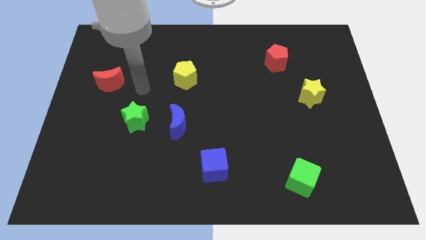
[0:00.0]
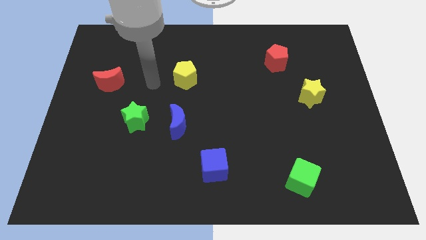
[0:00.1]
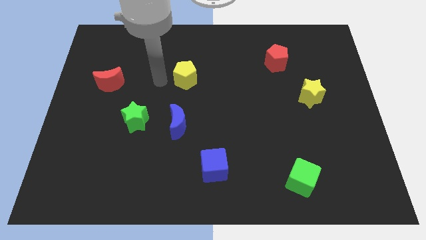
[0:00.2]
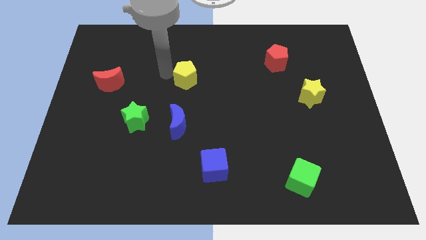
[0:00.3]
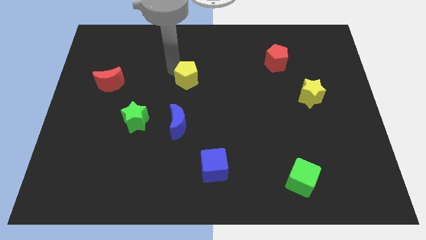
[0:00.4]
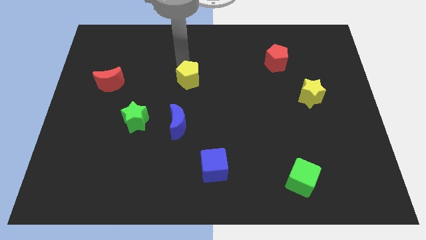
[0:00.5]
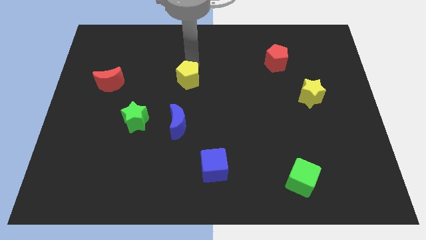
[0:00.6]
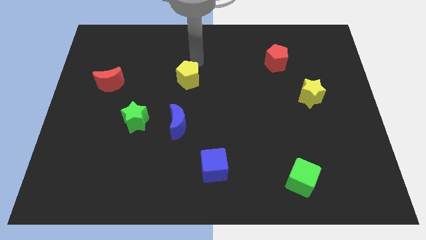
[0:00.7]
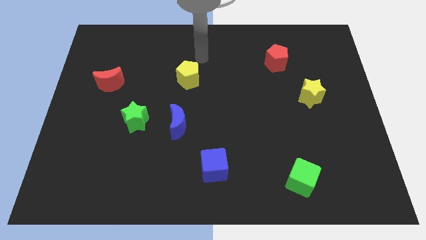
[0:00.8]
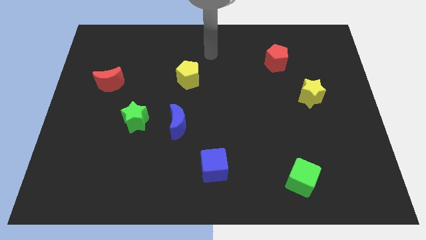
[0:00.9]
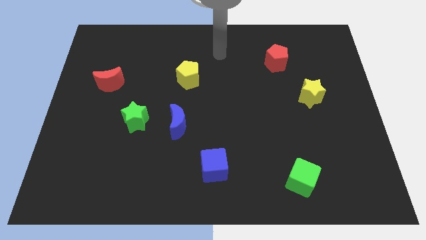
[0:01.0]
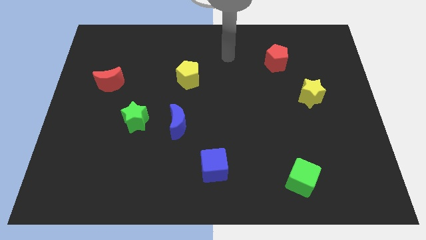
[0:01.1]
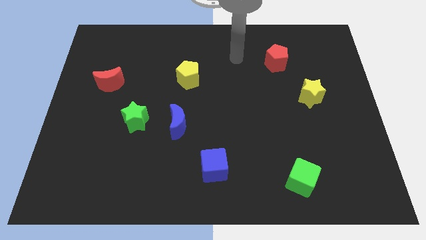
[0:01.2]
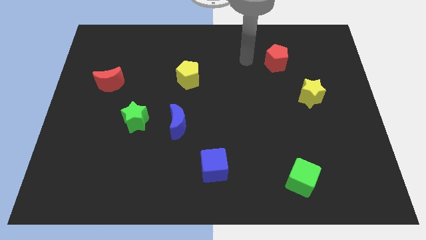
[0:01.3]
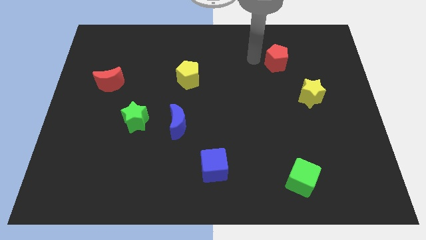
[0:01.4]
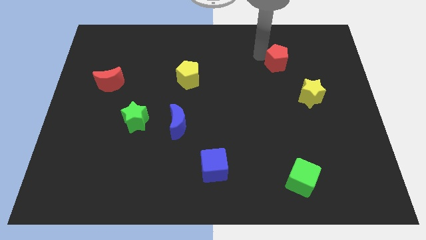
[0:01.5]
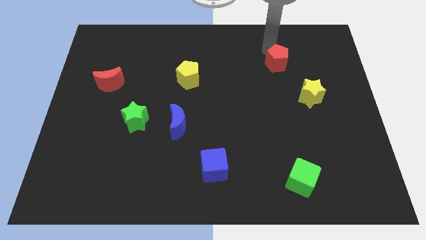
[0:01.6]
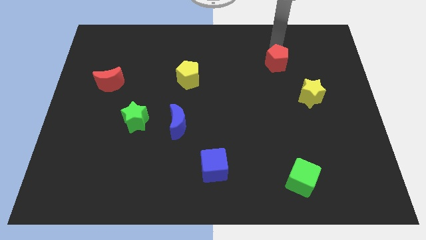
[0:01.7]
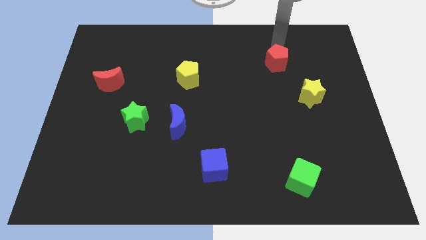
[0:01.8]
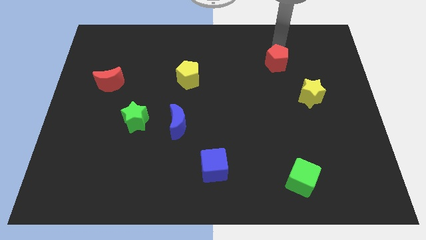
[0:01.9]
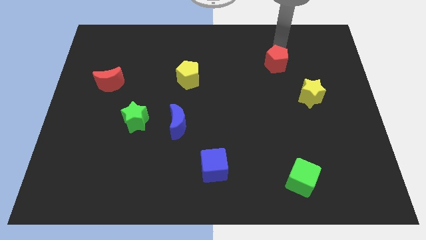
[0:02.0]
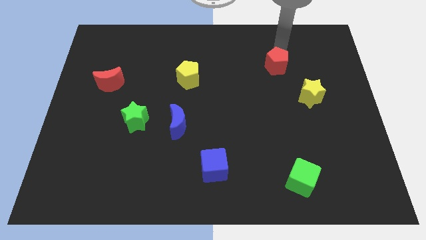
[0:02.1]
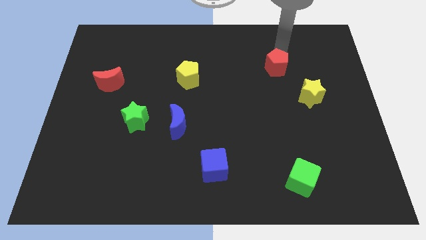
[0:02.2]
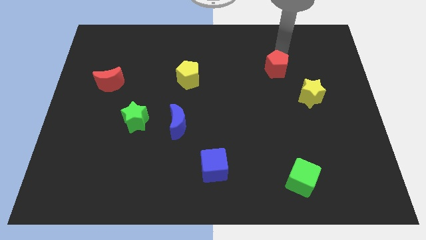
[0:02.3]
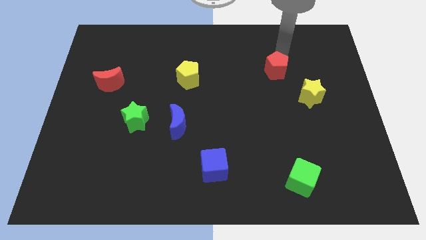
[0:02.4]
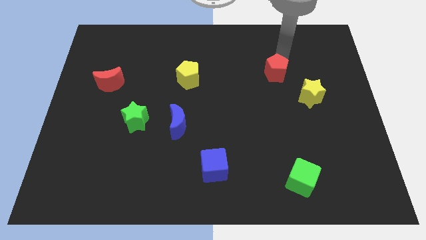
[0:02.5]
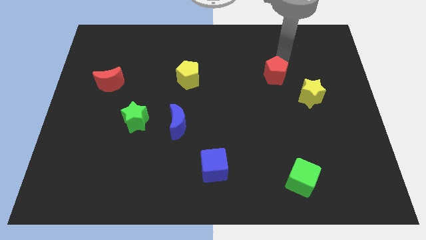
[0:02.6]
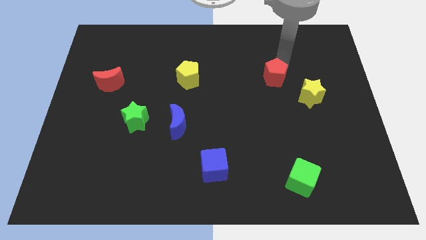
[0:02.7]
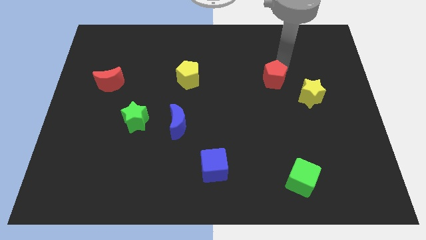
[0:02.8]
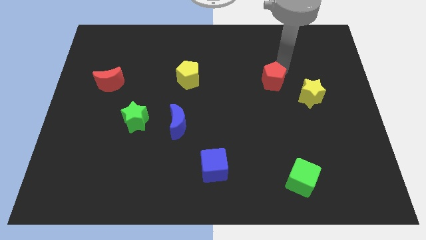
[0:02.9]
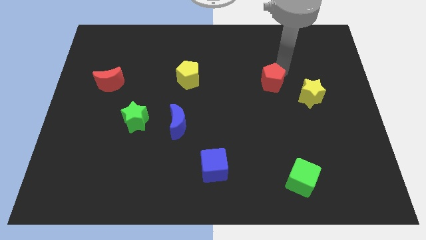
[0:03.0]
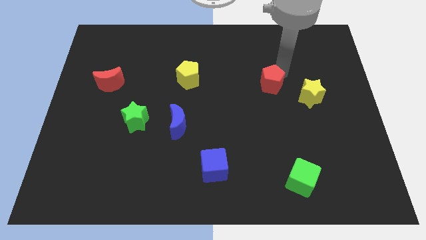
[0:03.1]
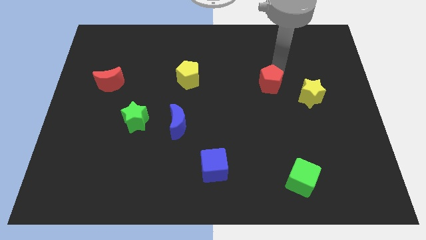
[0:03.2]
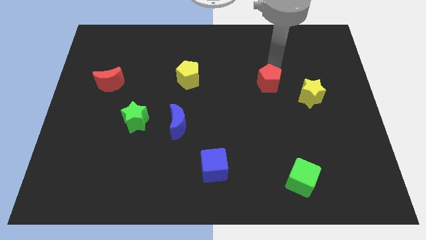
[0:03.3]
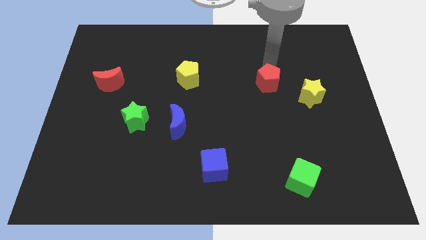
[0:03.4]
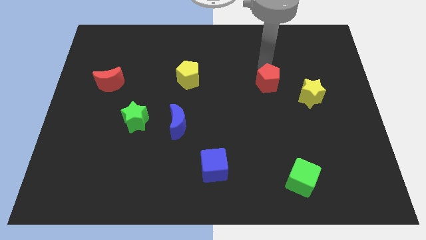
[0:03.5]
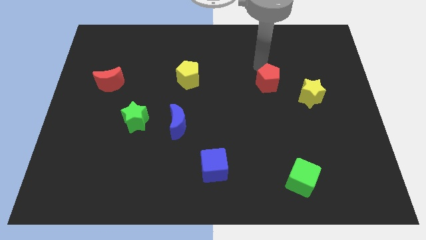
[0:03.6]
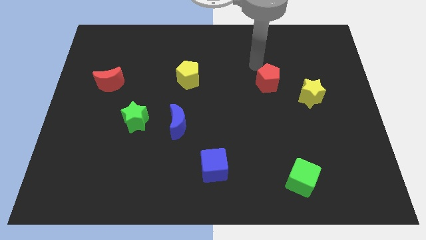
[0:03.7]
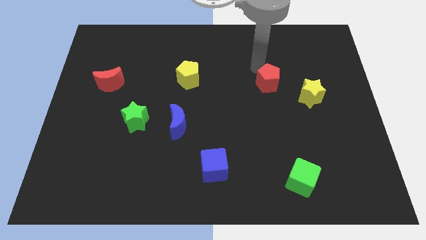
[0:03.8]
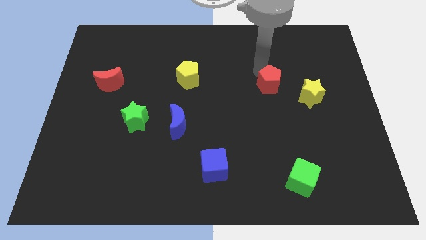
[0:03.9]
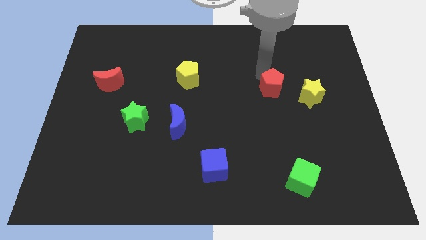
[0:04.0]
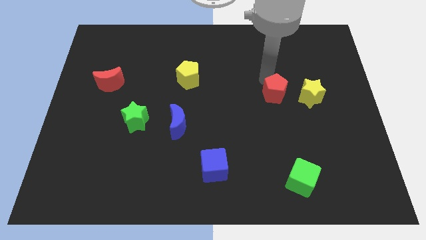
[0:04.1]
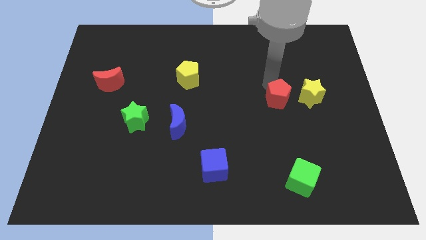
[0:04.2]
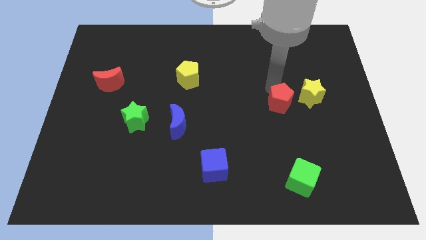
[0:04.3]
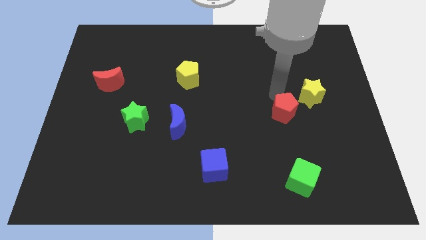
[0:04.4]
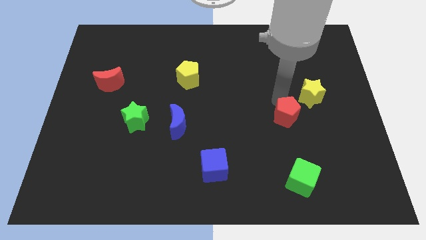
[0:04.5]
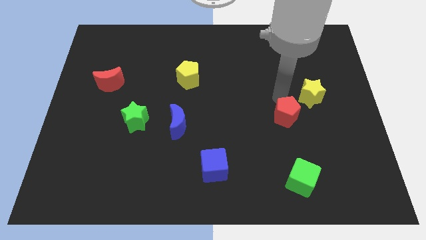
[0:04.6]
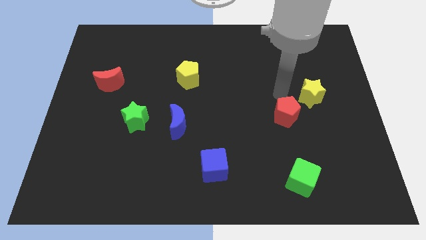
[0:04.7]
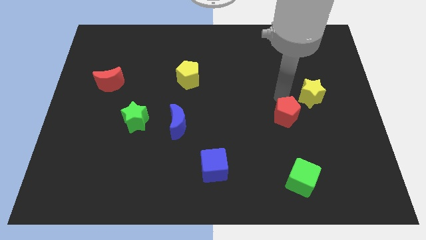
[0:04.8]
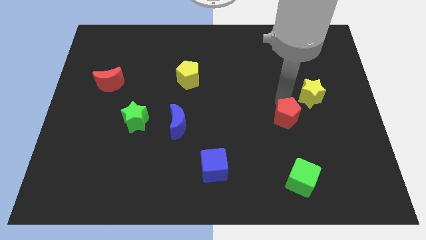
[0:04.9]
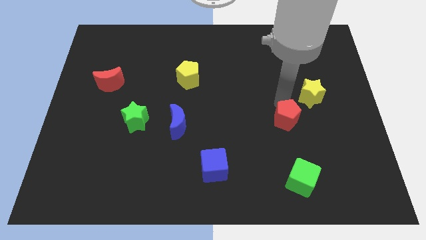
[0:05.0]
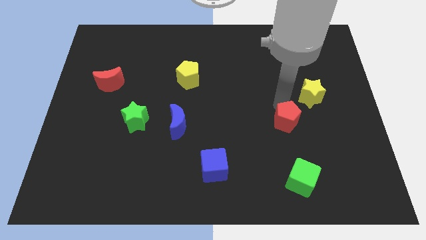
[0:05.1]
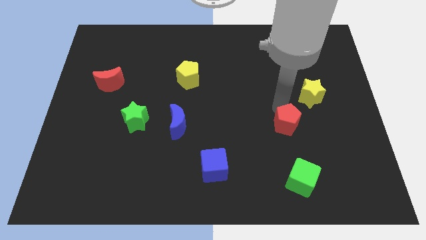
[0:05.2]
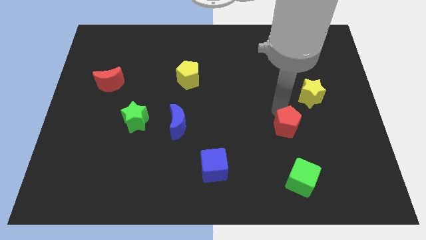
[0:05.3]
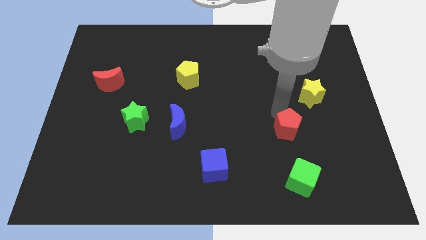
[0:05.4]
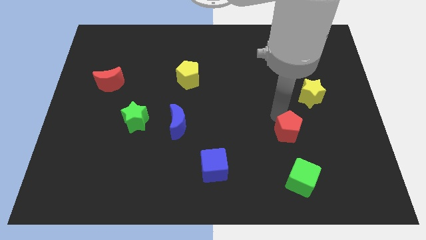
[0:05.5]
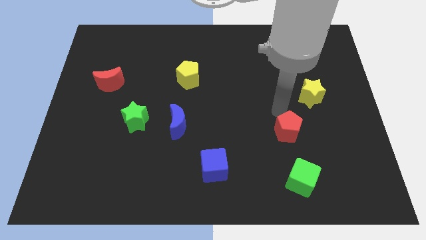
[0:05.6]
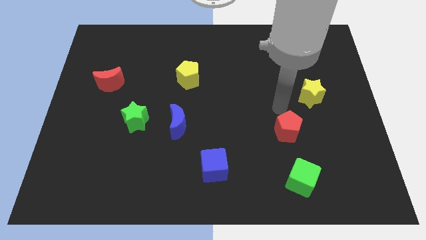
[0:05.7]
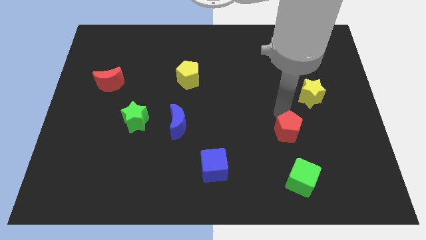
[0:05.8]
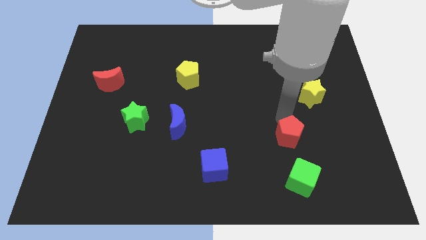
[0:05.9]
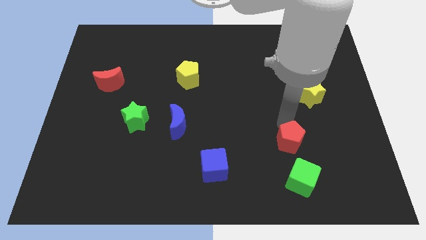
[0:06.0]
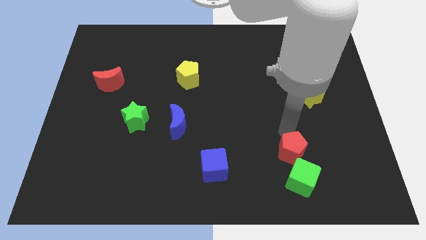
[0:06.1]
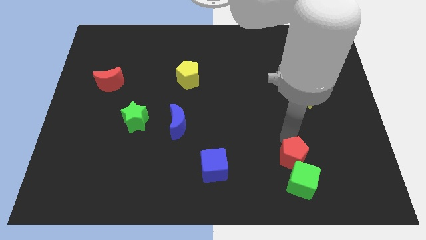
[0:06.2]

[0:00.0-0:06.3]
move the red pentagon next to the green cube

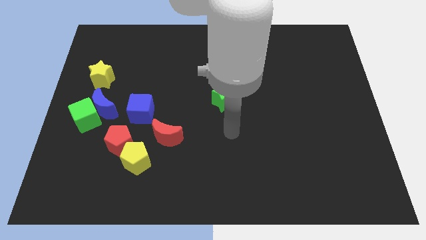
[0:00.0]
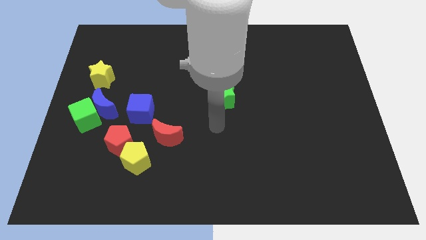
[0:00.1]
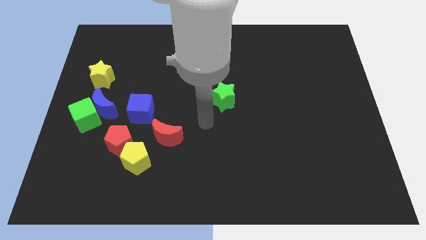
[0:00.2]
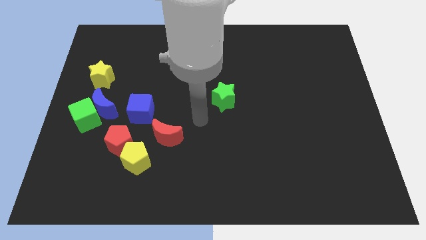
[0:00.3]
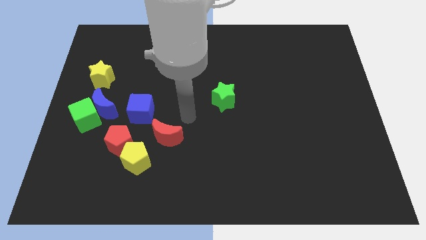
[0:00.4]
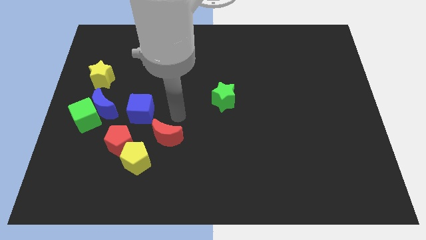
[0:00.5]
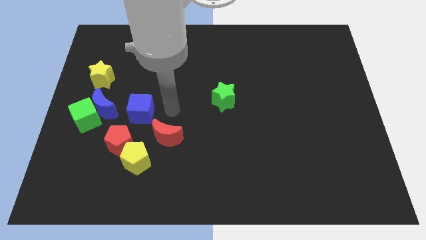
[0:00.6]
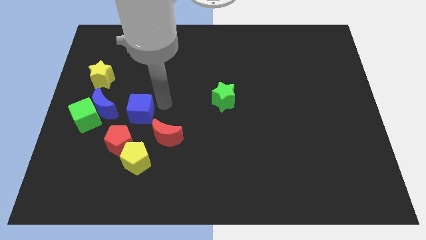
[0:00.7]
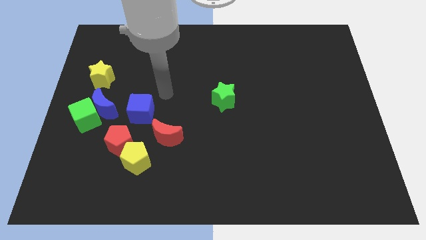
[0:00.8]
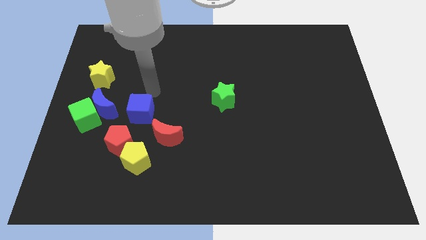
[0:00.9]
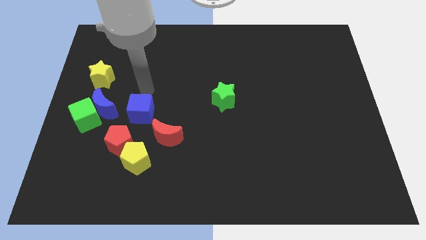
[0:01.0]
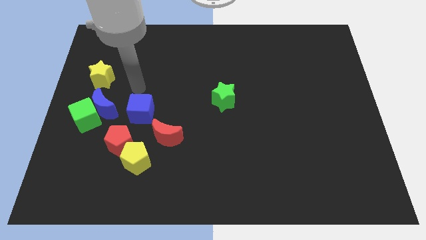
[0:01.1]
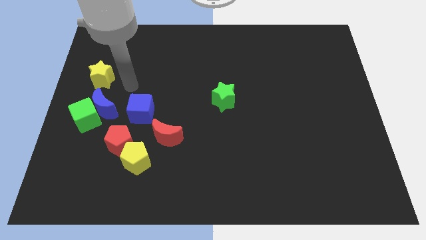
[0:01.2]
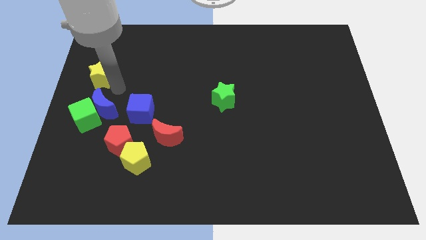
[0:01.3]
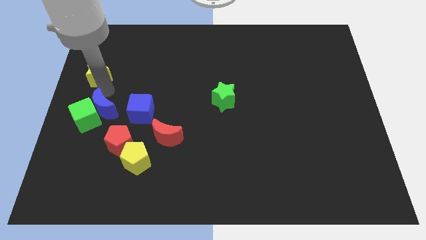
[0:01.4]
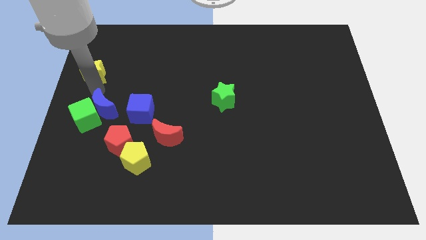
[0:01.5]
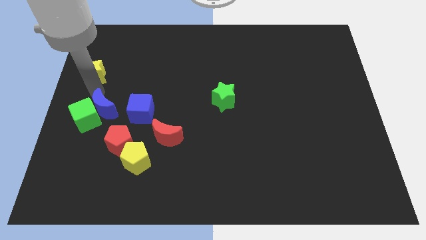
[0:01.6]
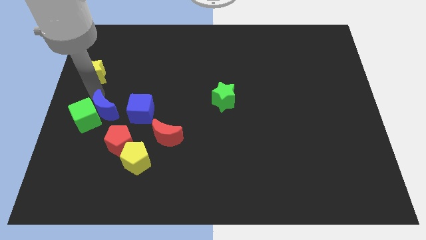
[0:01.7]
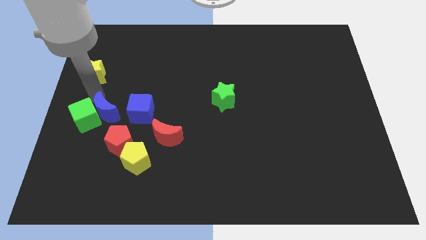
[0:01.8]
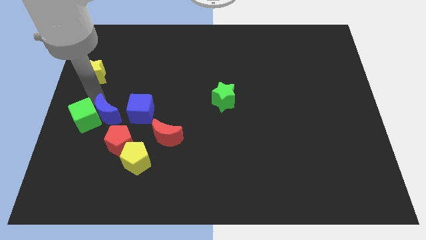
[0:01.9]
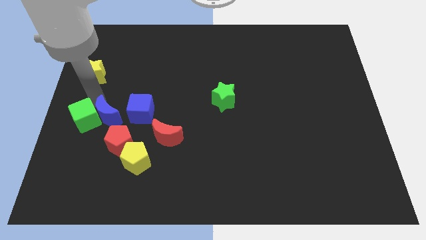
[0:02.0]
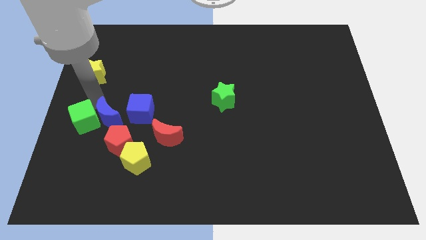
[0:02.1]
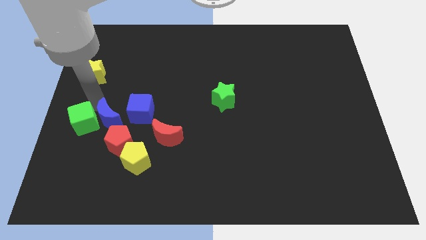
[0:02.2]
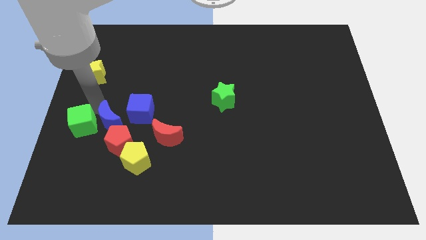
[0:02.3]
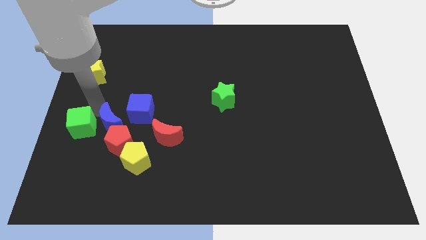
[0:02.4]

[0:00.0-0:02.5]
push the blue moon close to the red pentagon
